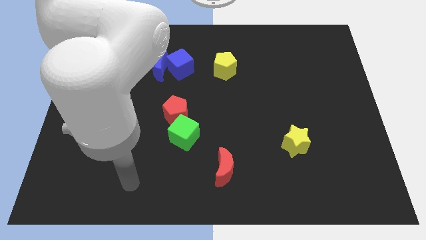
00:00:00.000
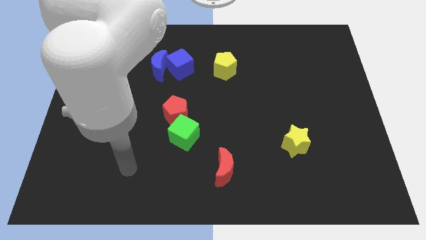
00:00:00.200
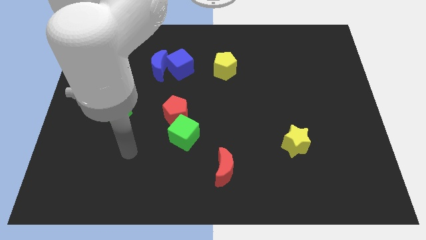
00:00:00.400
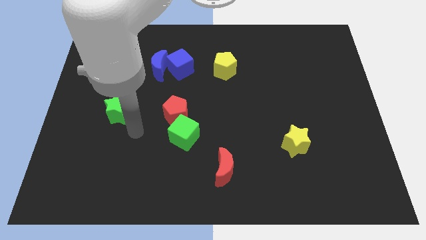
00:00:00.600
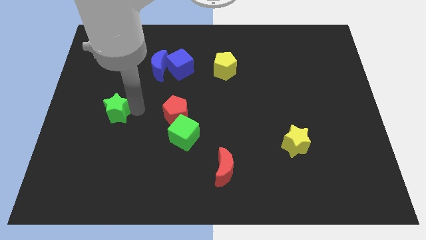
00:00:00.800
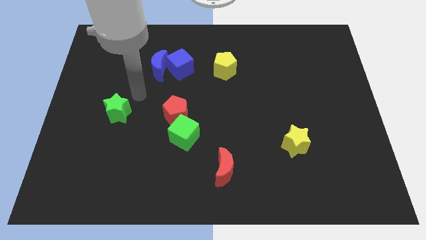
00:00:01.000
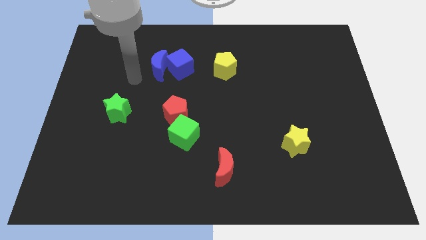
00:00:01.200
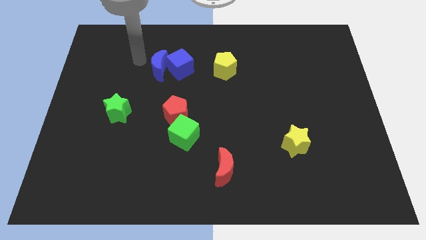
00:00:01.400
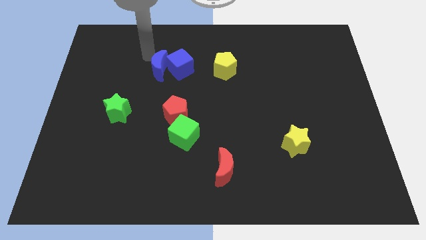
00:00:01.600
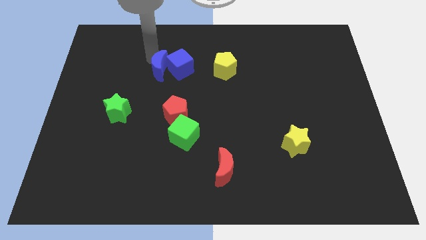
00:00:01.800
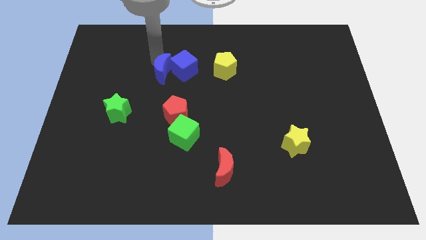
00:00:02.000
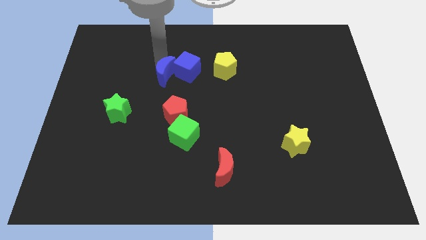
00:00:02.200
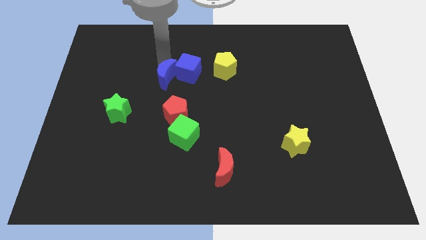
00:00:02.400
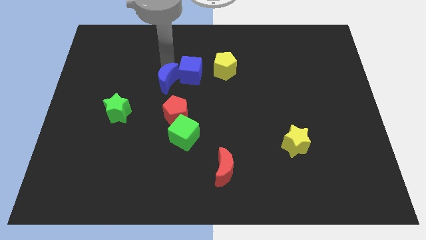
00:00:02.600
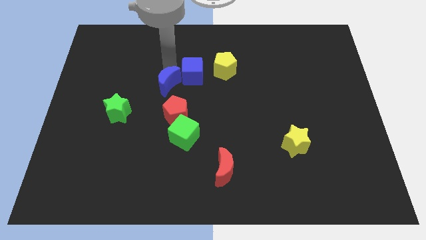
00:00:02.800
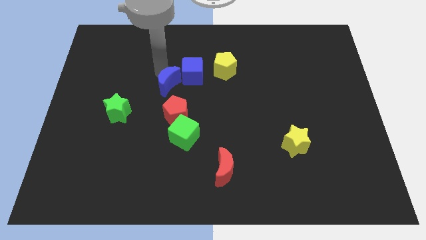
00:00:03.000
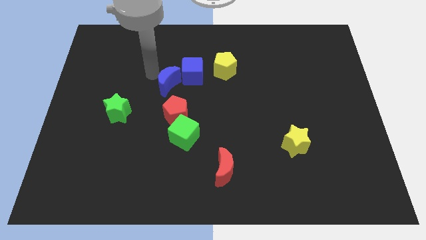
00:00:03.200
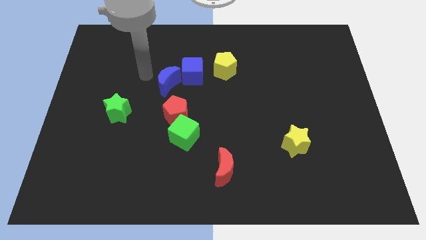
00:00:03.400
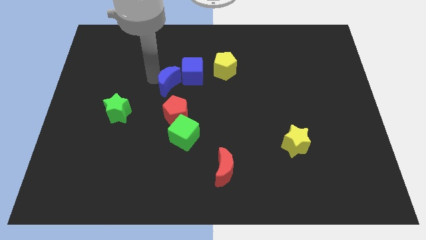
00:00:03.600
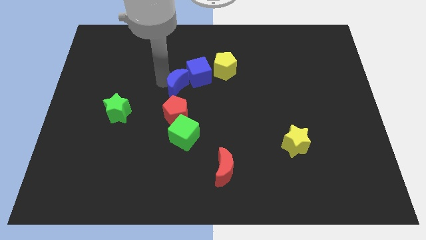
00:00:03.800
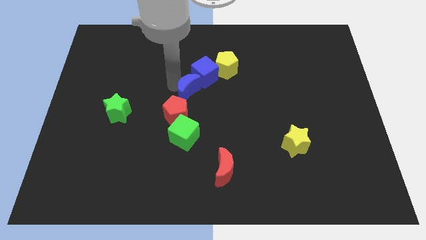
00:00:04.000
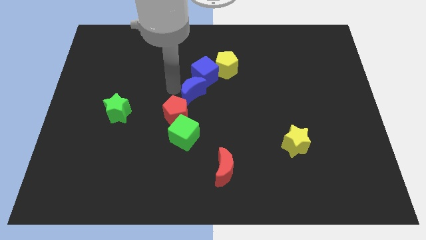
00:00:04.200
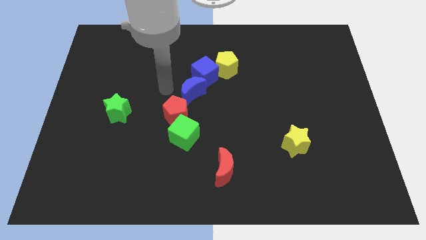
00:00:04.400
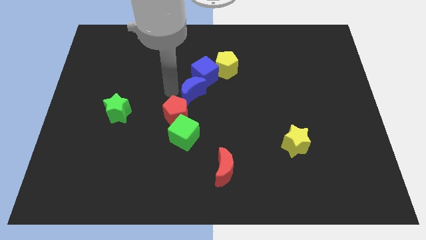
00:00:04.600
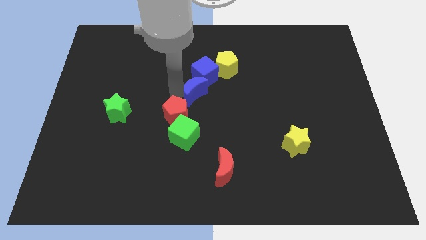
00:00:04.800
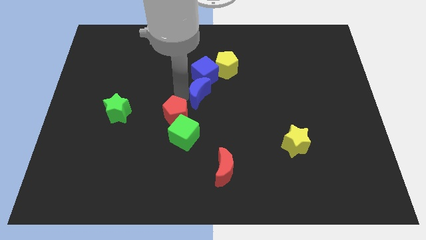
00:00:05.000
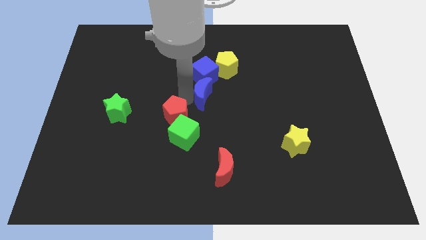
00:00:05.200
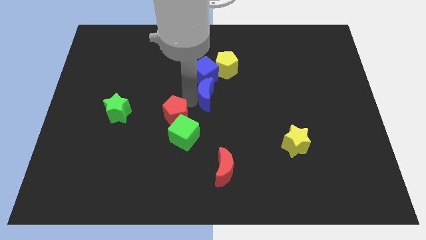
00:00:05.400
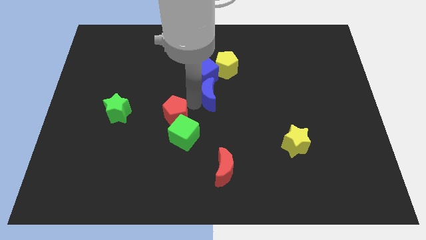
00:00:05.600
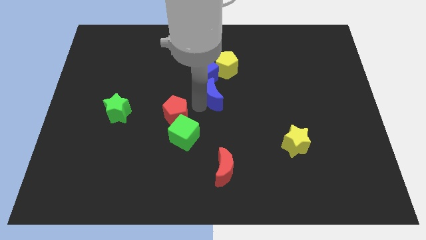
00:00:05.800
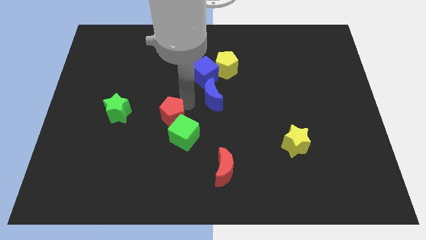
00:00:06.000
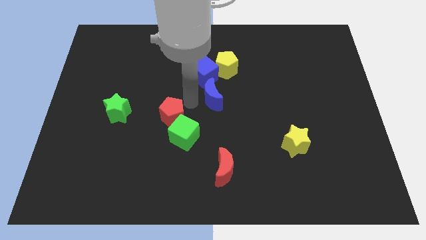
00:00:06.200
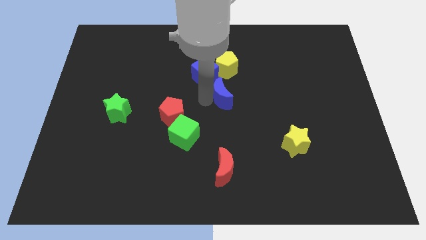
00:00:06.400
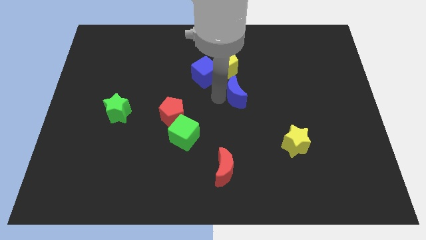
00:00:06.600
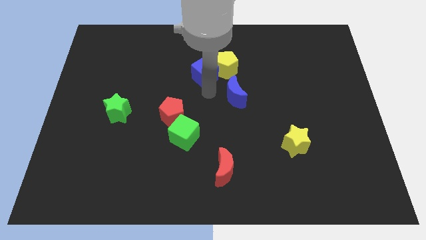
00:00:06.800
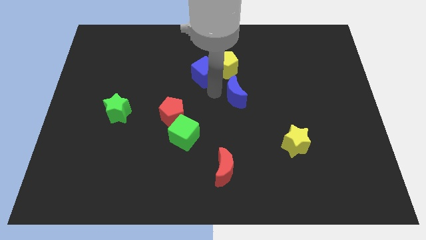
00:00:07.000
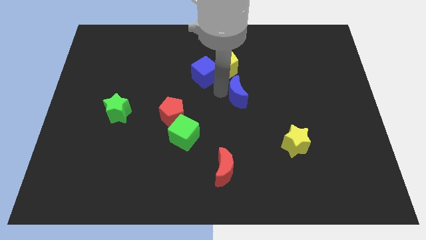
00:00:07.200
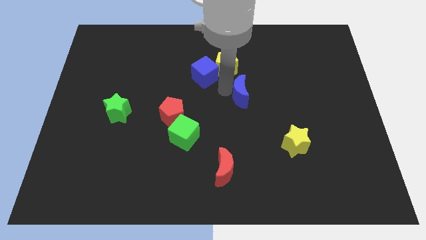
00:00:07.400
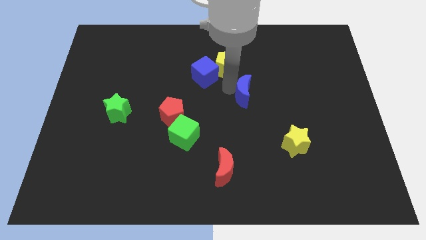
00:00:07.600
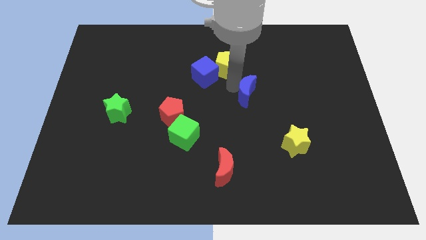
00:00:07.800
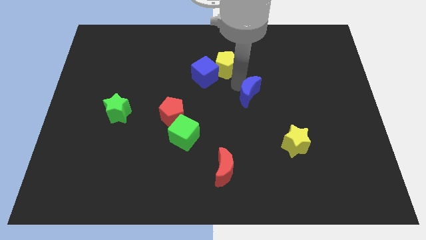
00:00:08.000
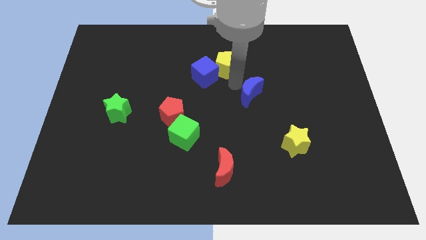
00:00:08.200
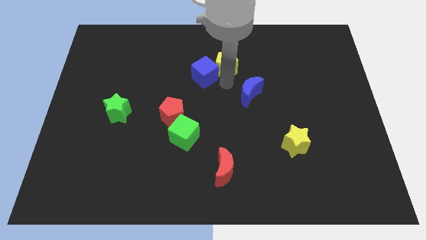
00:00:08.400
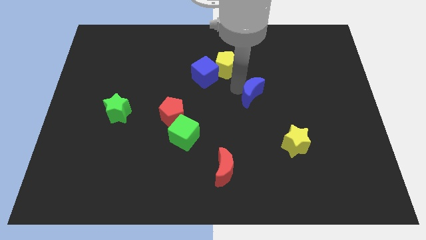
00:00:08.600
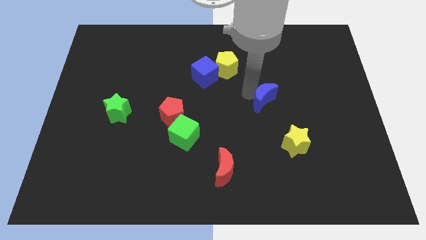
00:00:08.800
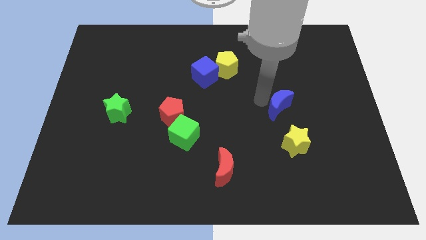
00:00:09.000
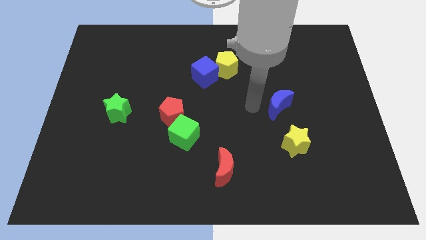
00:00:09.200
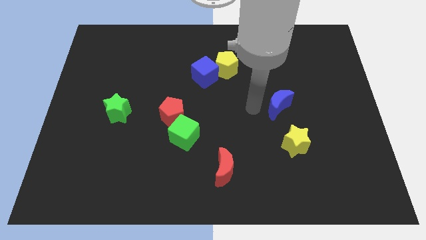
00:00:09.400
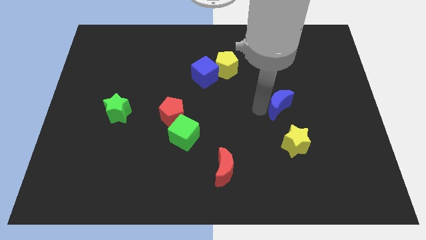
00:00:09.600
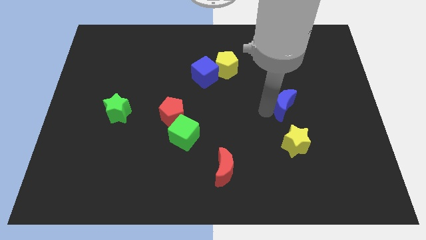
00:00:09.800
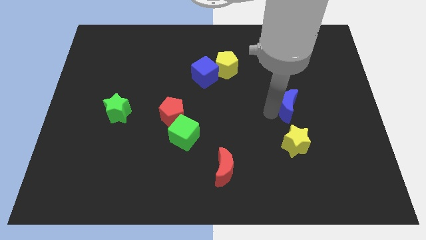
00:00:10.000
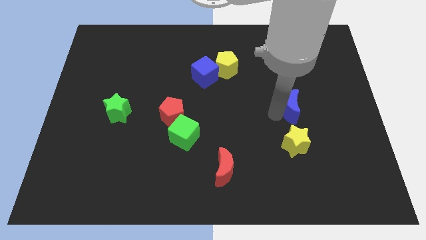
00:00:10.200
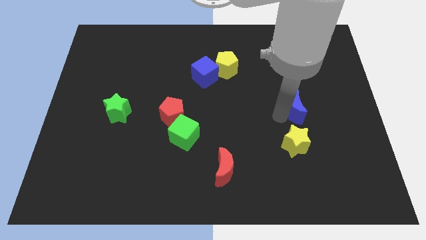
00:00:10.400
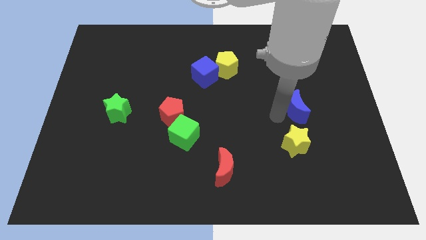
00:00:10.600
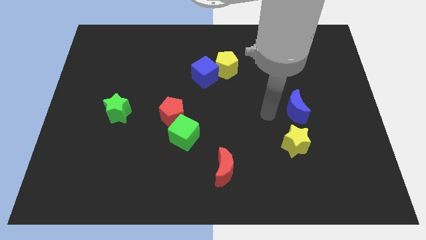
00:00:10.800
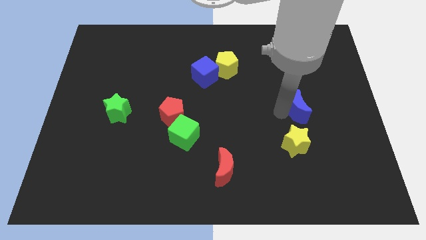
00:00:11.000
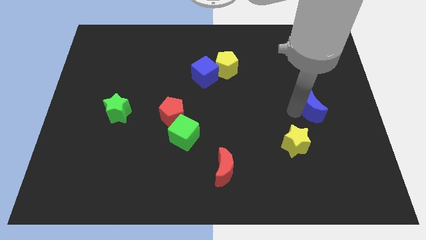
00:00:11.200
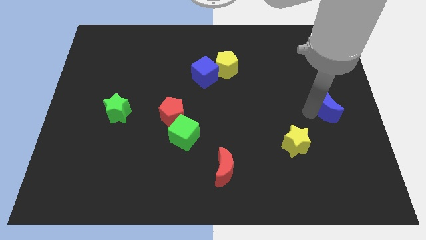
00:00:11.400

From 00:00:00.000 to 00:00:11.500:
move the blue moon to the right side

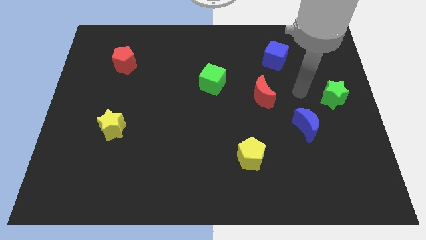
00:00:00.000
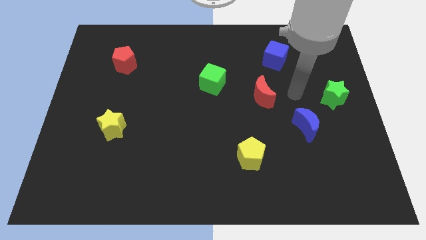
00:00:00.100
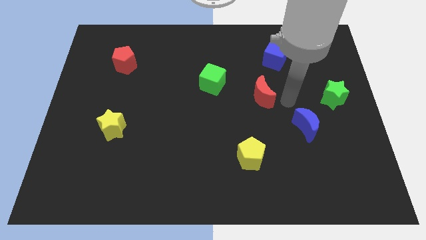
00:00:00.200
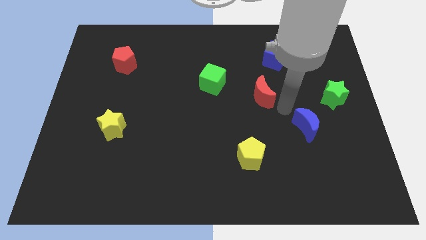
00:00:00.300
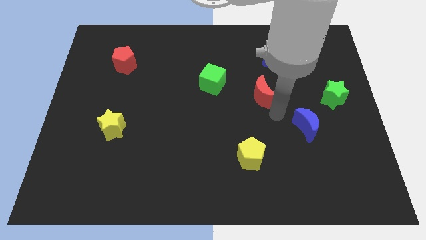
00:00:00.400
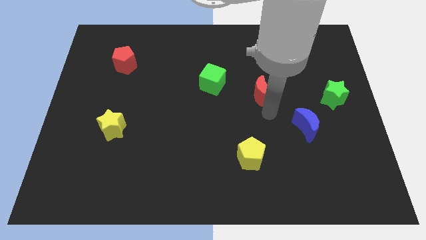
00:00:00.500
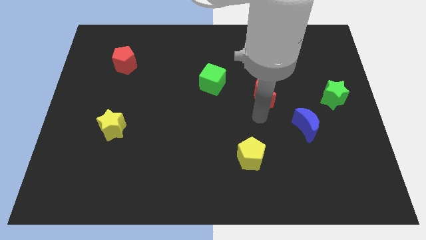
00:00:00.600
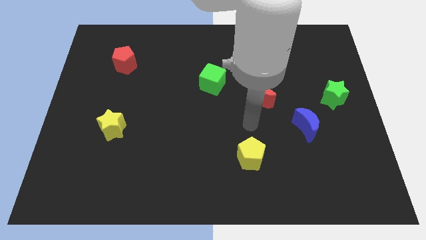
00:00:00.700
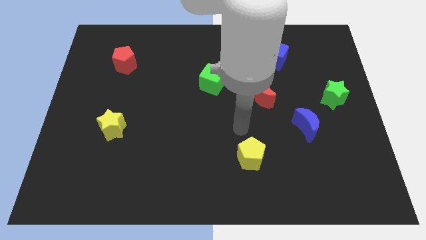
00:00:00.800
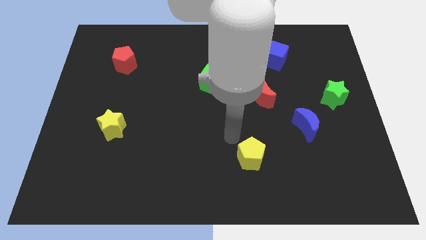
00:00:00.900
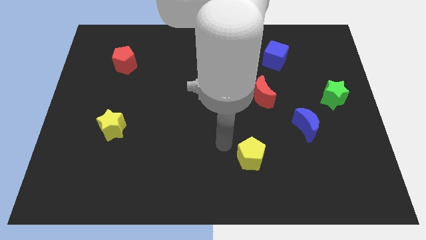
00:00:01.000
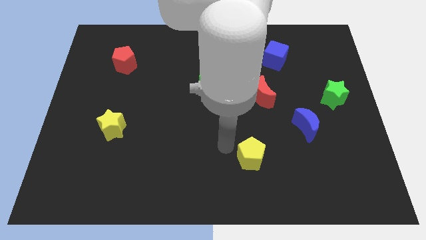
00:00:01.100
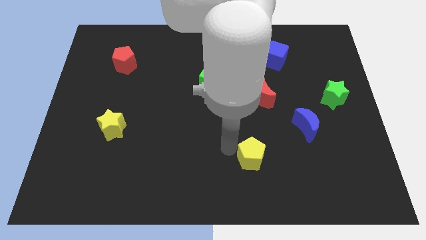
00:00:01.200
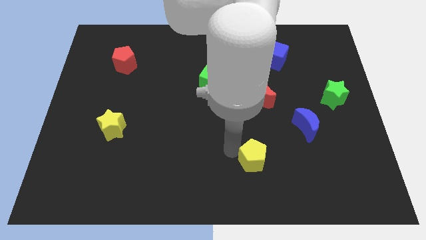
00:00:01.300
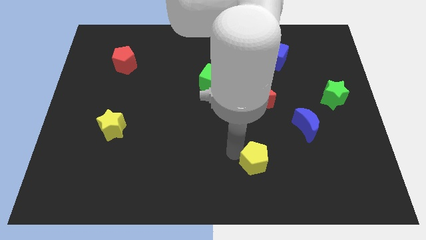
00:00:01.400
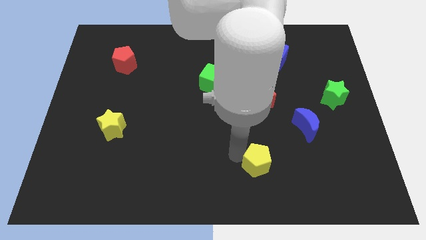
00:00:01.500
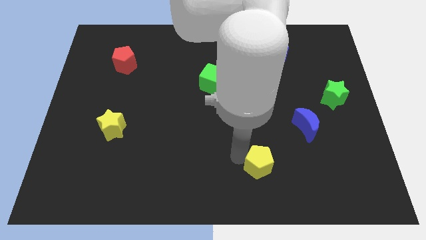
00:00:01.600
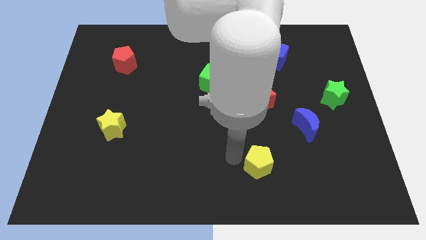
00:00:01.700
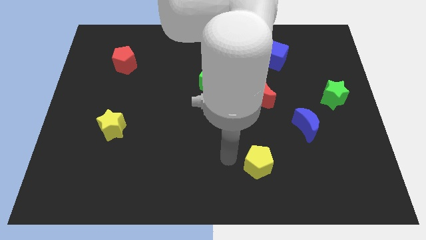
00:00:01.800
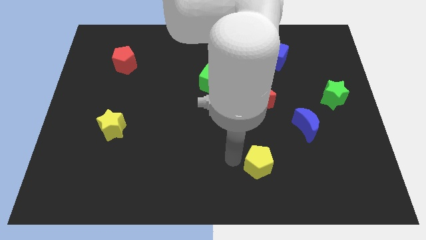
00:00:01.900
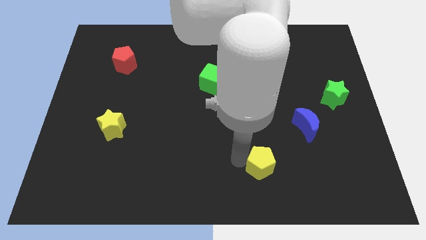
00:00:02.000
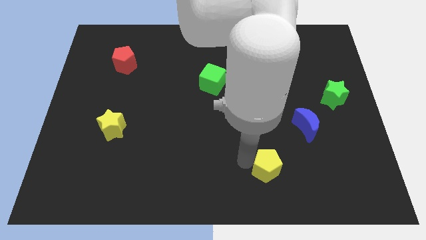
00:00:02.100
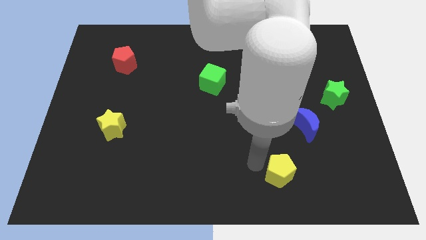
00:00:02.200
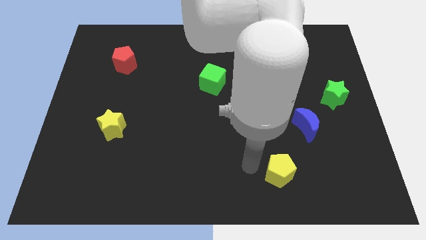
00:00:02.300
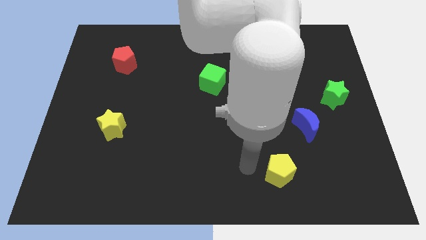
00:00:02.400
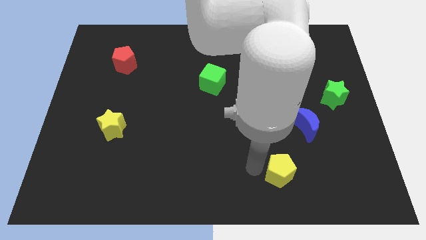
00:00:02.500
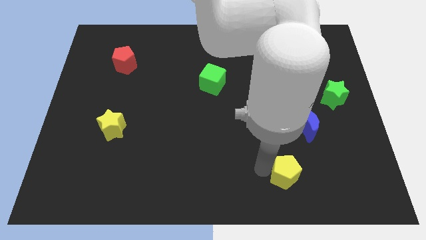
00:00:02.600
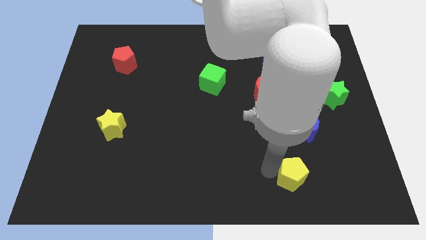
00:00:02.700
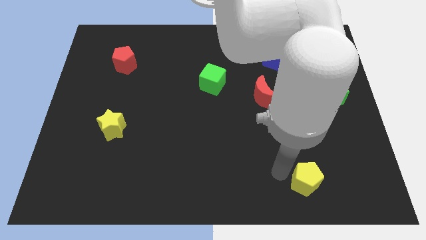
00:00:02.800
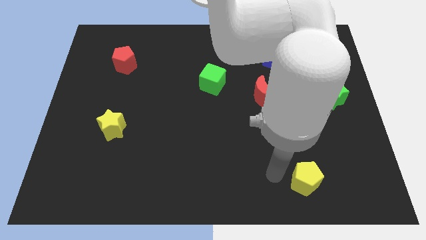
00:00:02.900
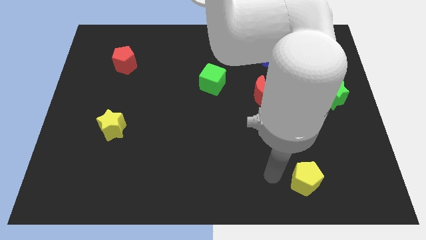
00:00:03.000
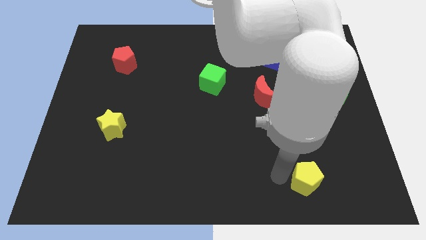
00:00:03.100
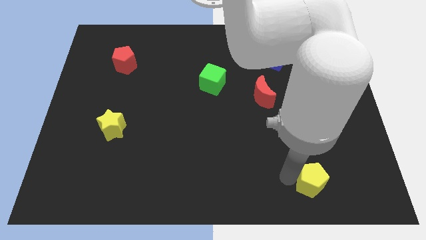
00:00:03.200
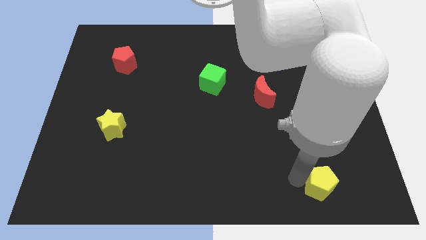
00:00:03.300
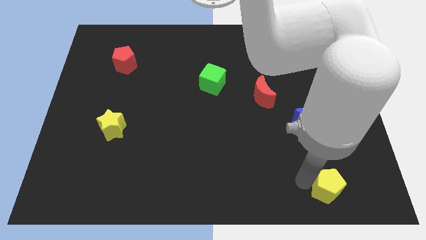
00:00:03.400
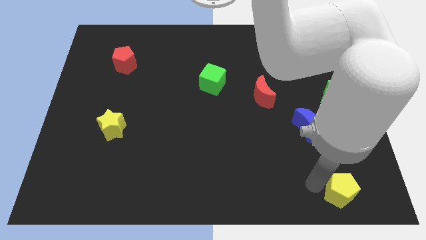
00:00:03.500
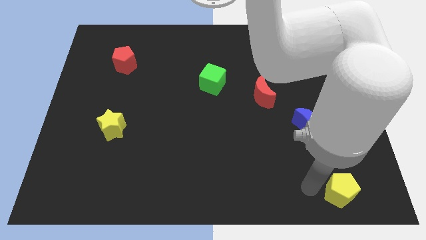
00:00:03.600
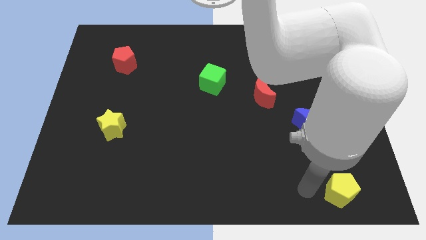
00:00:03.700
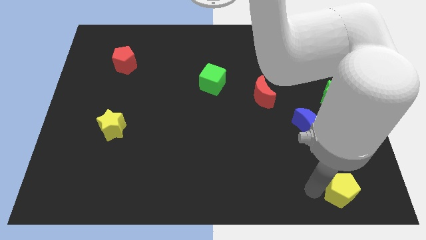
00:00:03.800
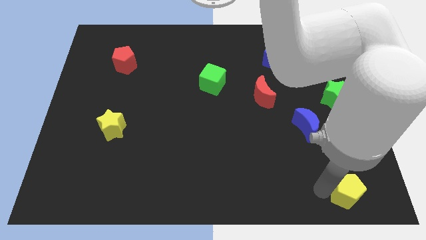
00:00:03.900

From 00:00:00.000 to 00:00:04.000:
put the yellow pentagon to the lower right corner
